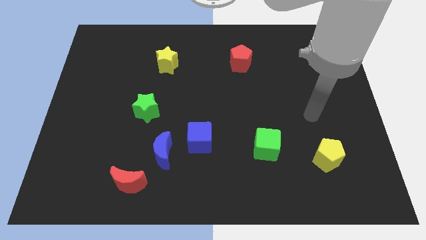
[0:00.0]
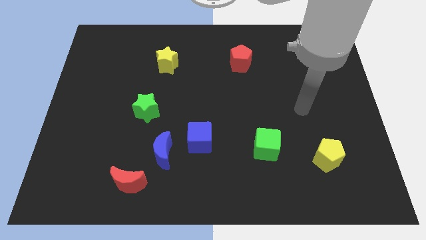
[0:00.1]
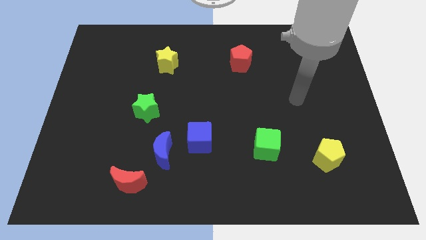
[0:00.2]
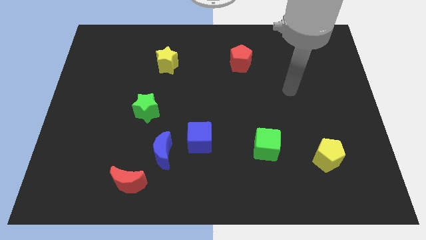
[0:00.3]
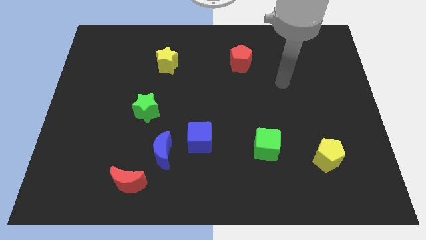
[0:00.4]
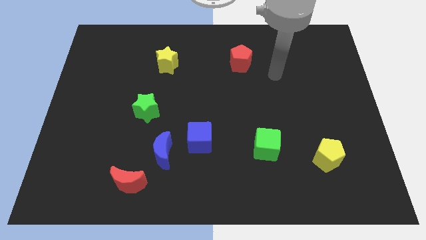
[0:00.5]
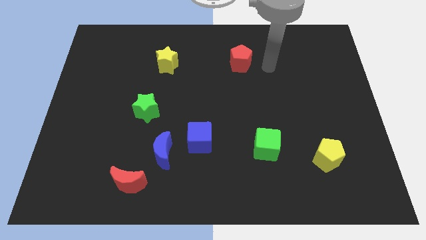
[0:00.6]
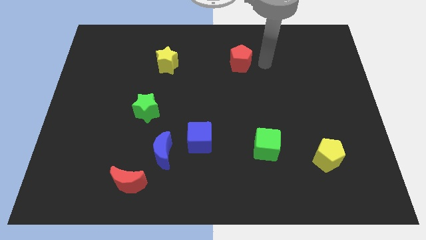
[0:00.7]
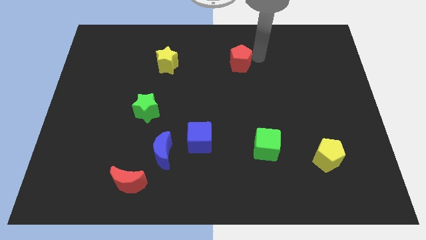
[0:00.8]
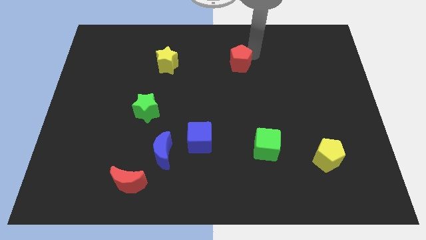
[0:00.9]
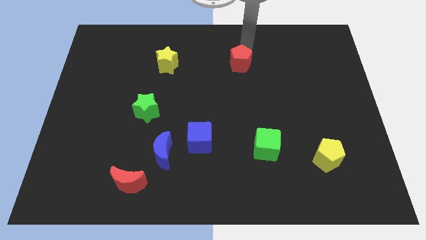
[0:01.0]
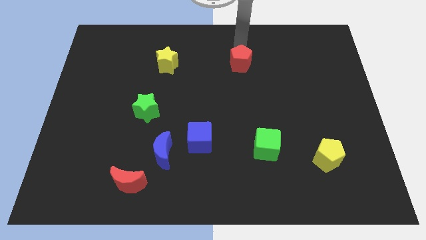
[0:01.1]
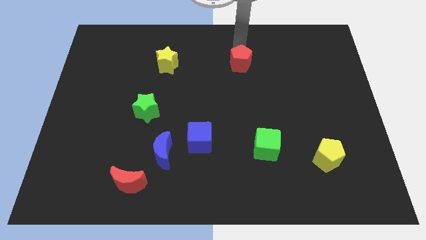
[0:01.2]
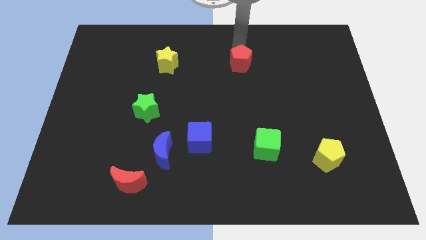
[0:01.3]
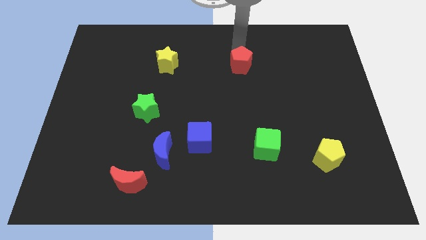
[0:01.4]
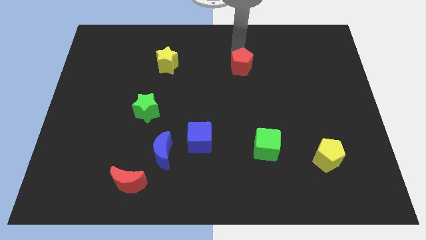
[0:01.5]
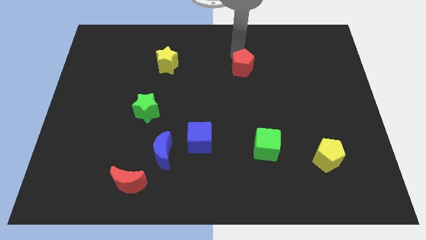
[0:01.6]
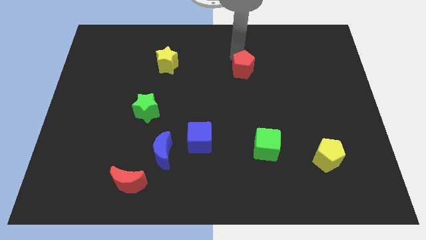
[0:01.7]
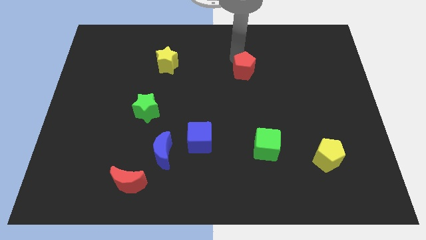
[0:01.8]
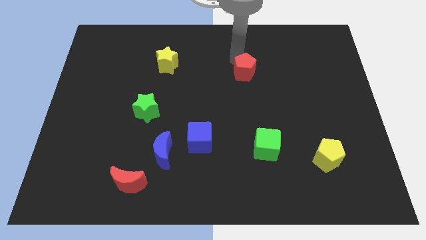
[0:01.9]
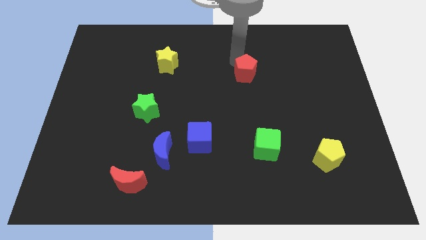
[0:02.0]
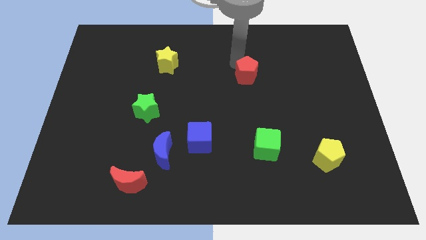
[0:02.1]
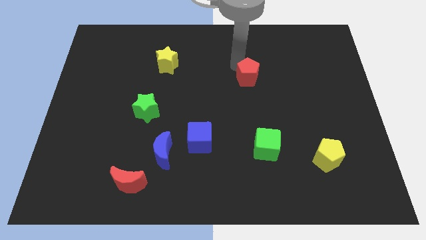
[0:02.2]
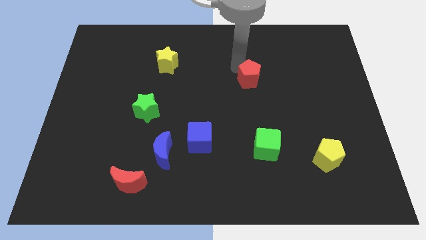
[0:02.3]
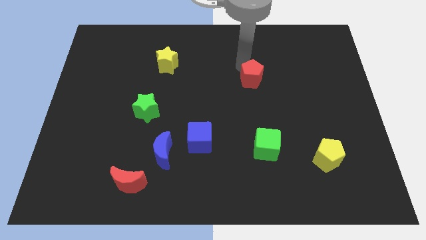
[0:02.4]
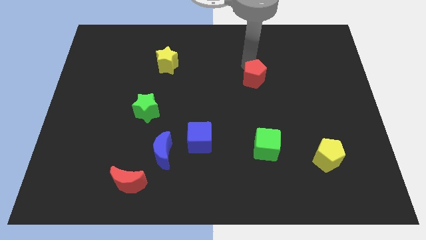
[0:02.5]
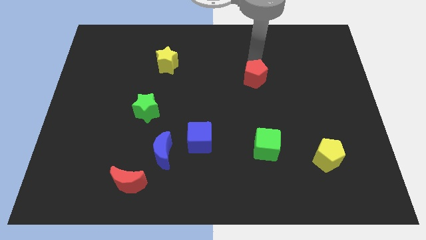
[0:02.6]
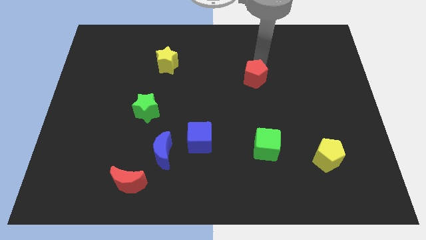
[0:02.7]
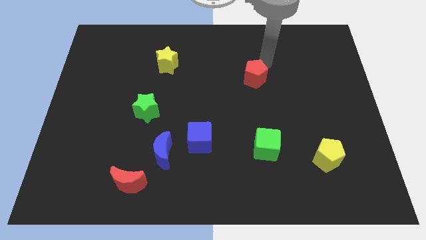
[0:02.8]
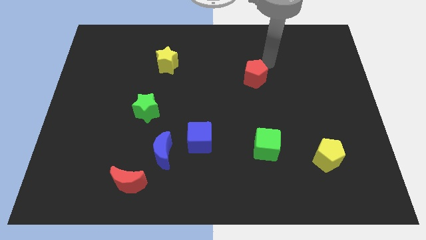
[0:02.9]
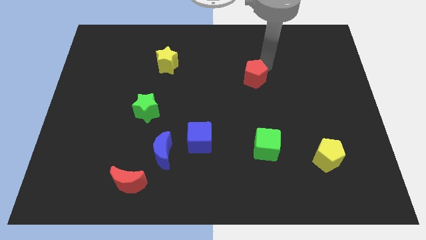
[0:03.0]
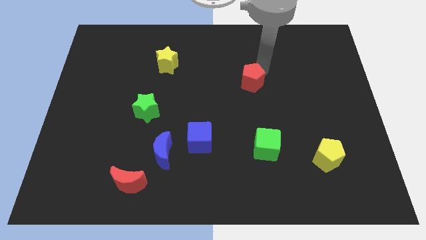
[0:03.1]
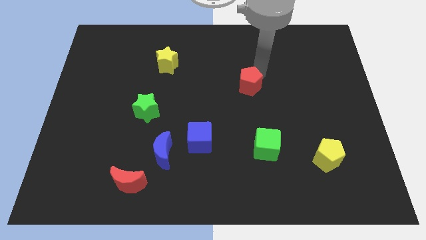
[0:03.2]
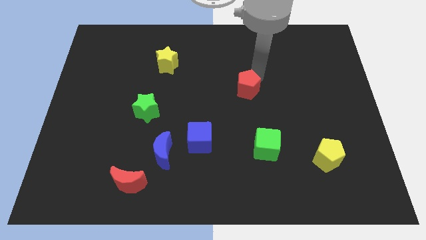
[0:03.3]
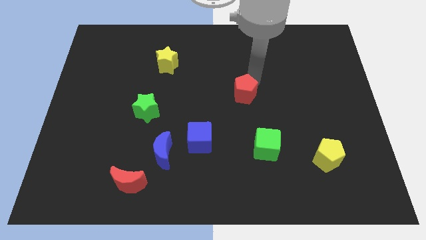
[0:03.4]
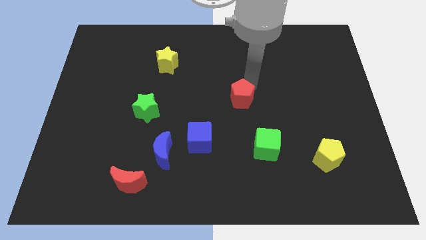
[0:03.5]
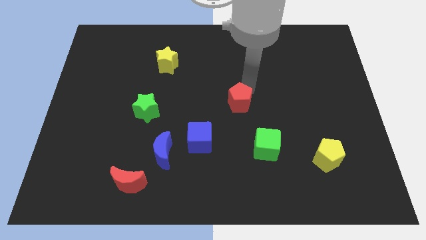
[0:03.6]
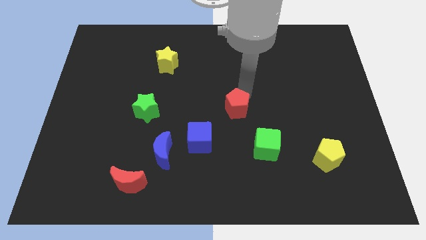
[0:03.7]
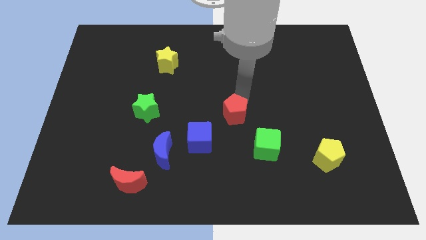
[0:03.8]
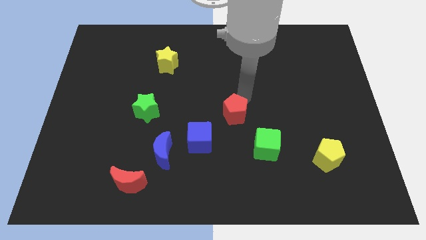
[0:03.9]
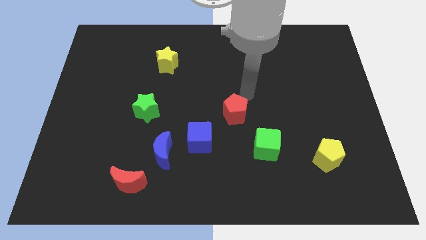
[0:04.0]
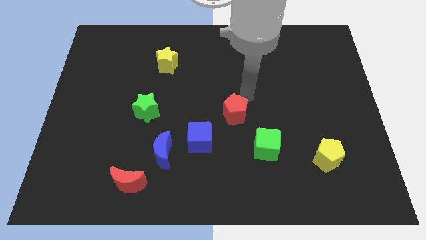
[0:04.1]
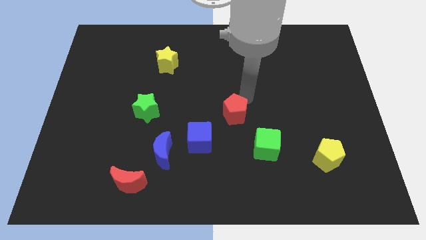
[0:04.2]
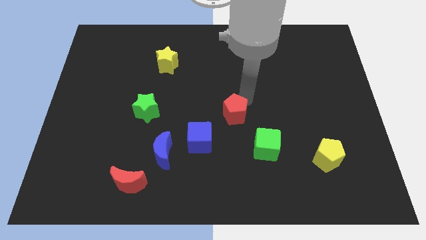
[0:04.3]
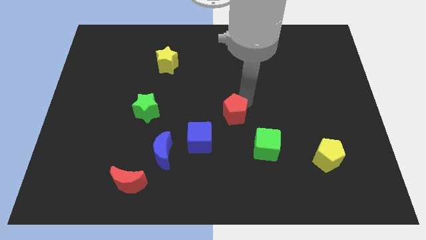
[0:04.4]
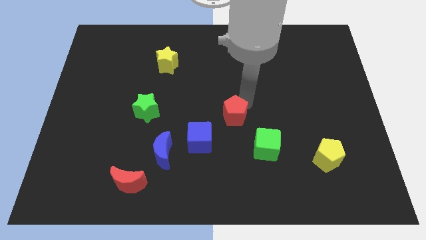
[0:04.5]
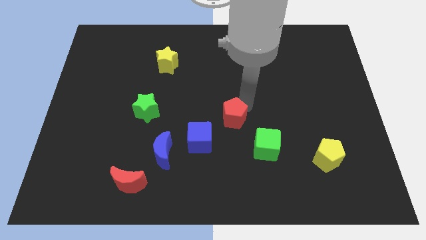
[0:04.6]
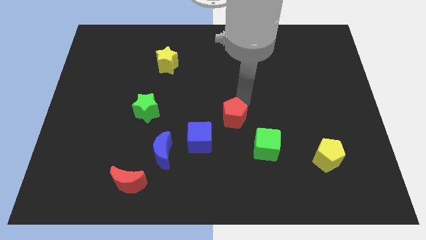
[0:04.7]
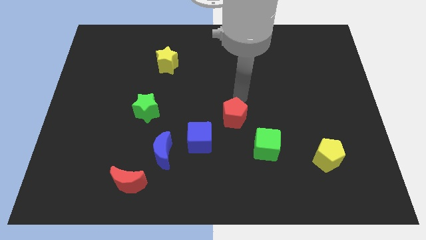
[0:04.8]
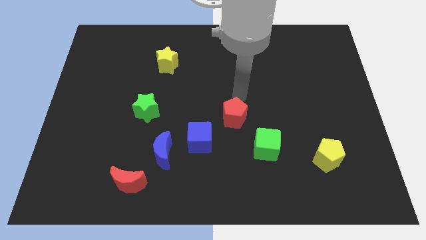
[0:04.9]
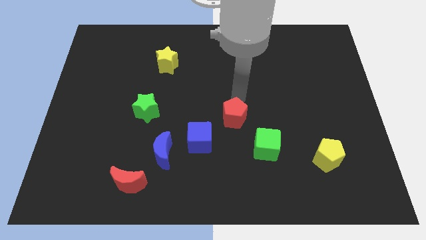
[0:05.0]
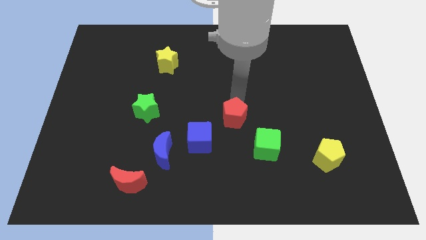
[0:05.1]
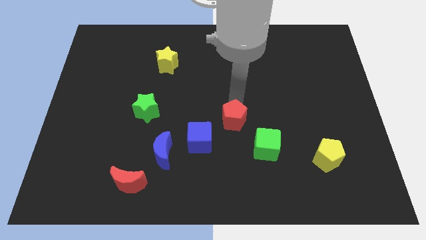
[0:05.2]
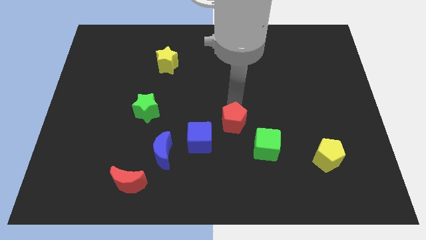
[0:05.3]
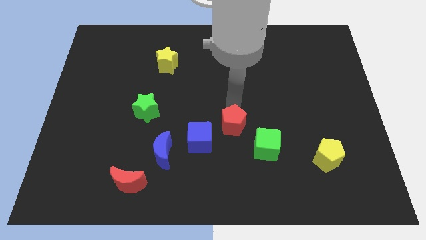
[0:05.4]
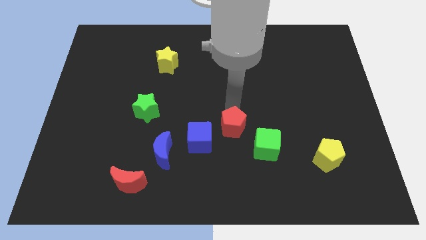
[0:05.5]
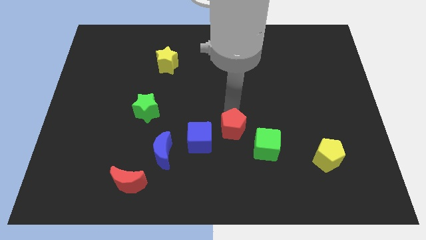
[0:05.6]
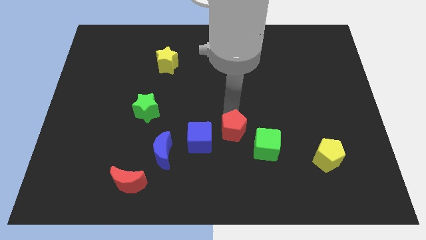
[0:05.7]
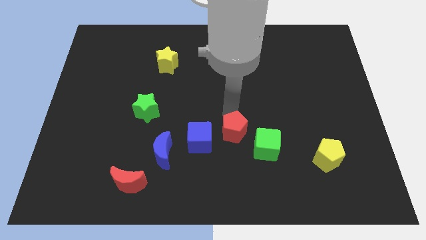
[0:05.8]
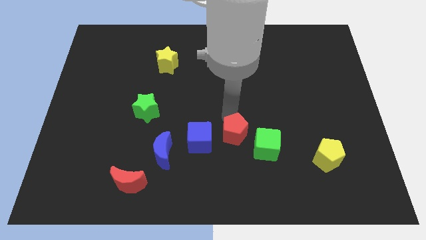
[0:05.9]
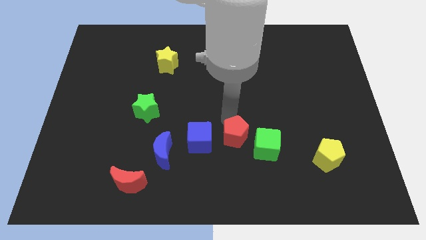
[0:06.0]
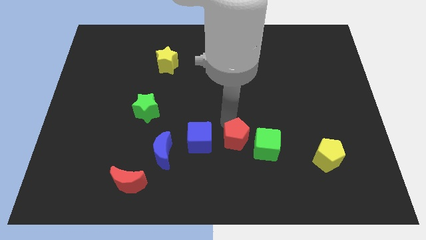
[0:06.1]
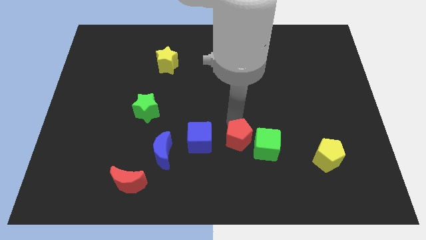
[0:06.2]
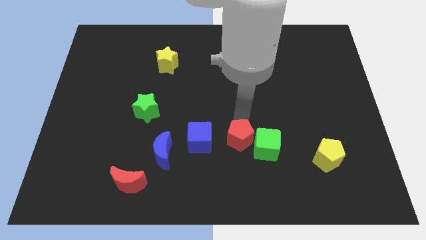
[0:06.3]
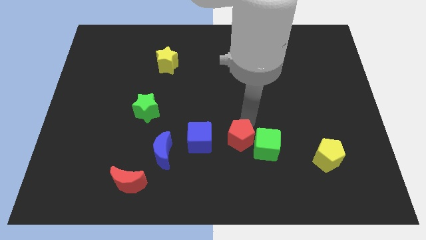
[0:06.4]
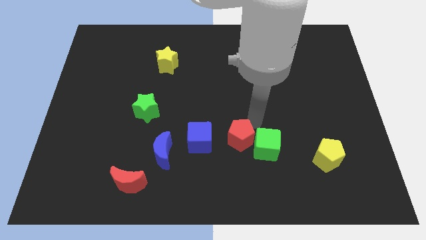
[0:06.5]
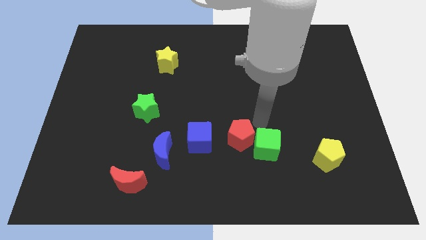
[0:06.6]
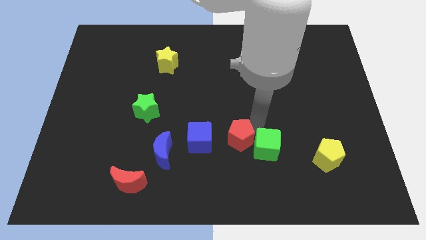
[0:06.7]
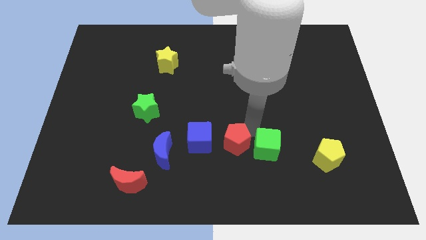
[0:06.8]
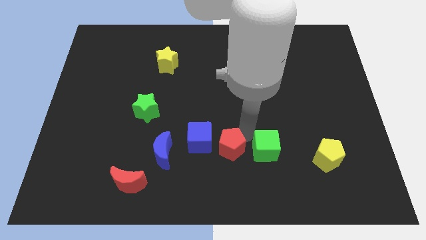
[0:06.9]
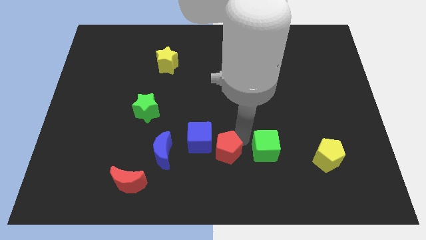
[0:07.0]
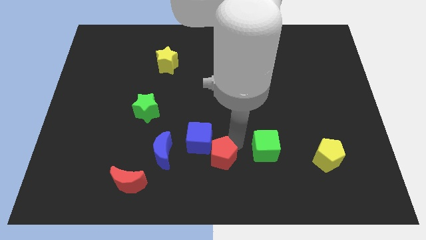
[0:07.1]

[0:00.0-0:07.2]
slide the red pentagon to the bottom side
